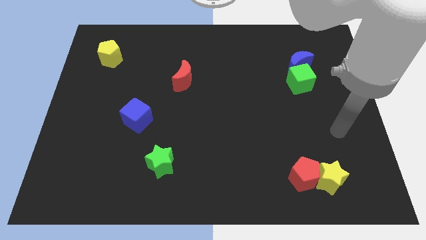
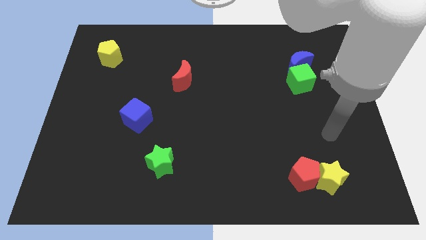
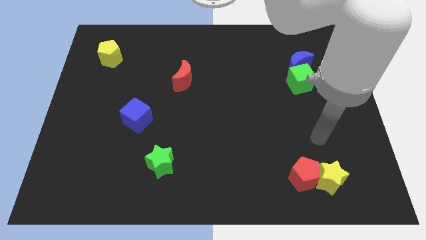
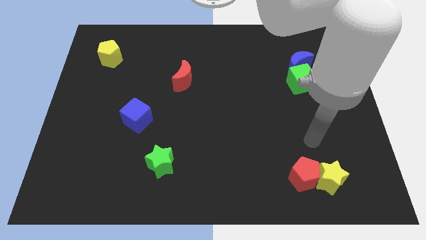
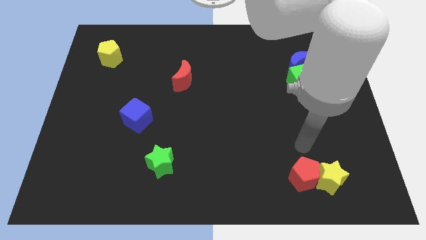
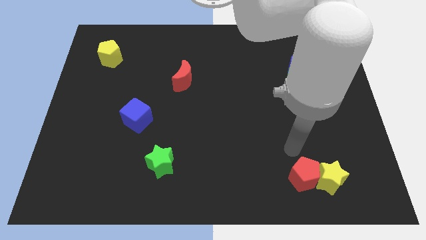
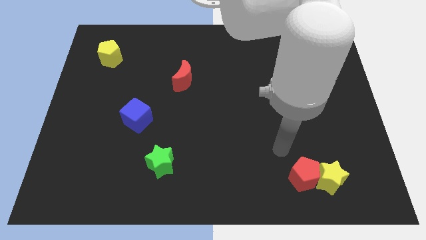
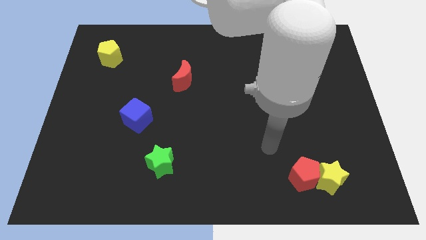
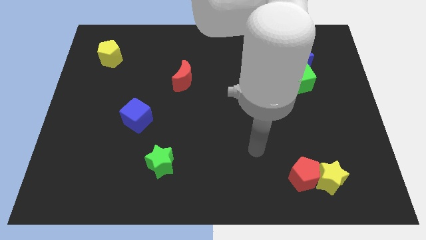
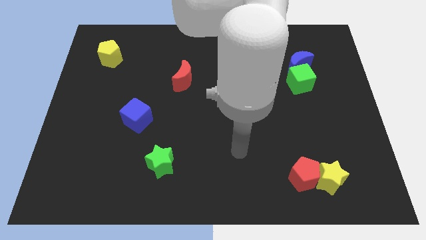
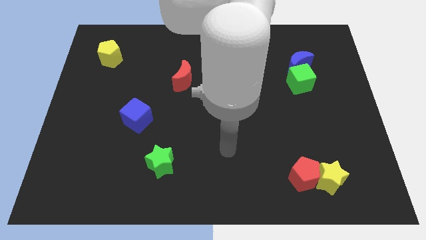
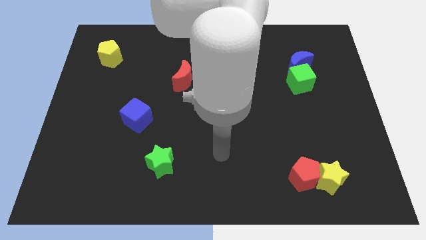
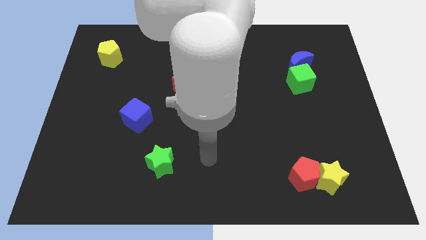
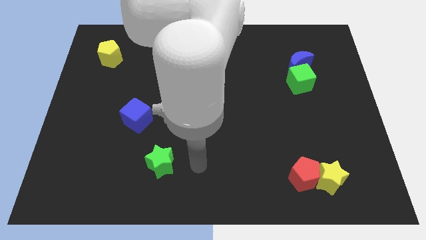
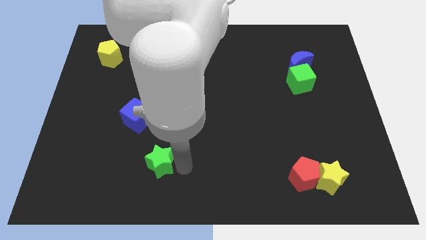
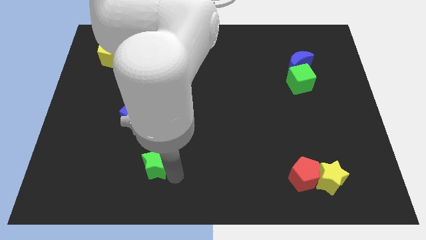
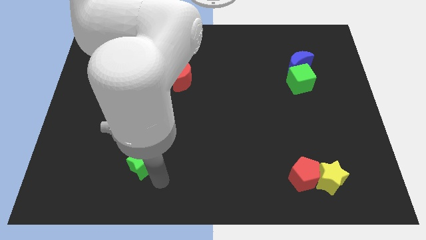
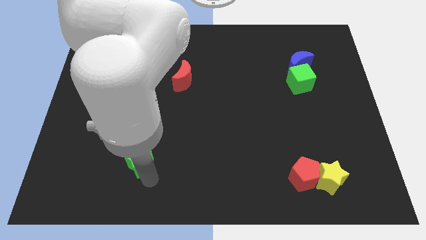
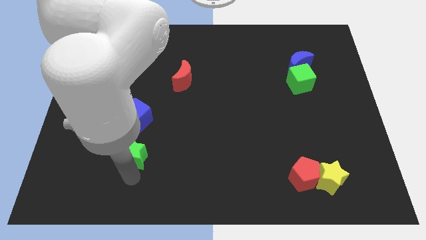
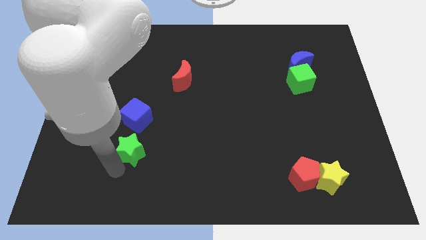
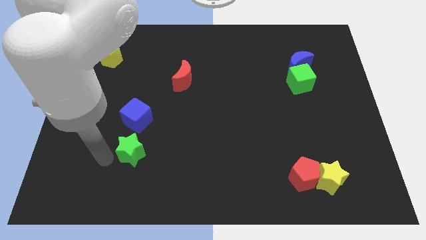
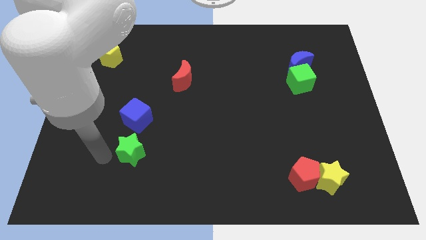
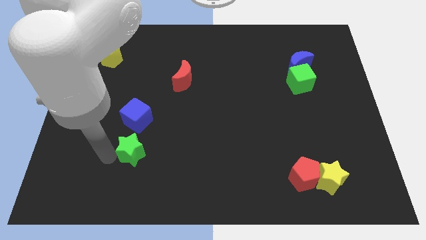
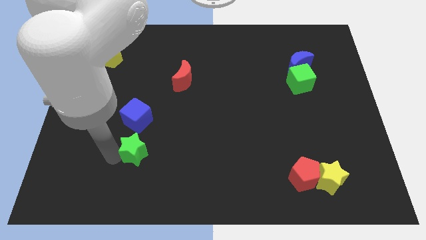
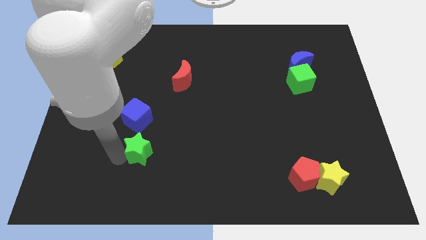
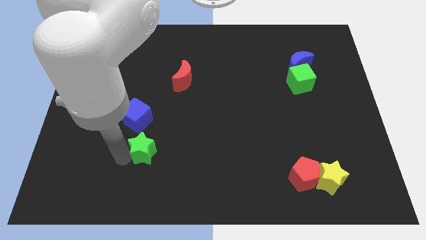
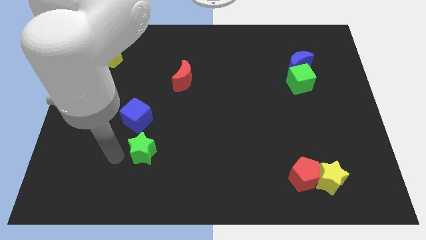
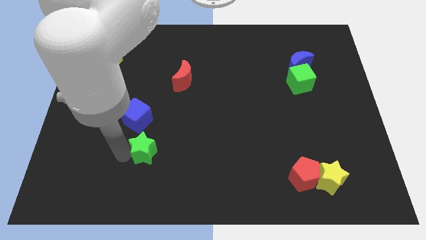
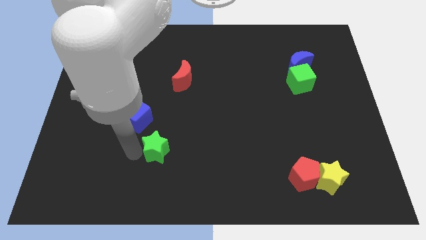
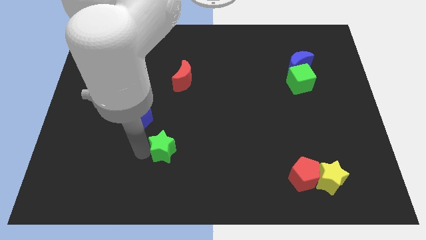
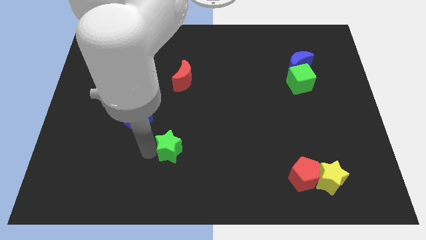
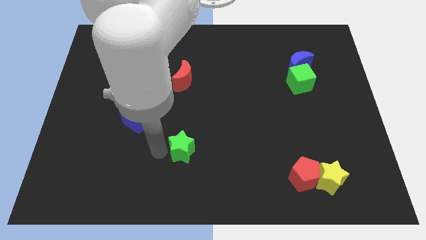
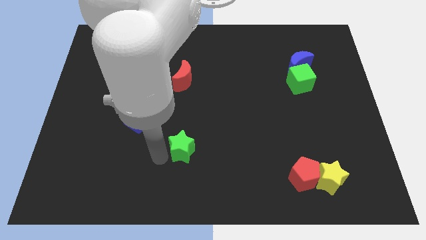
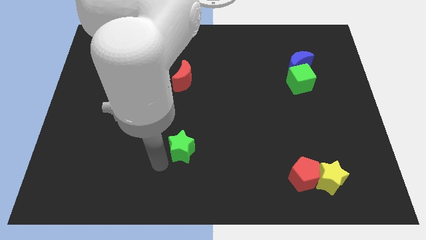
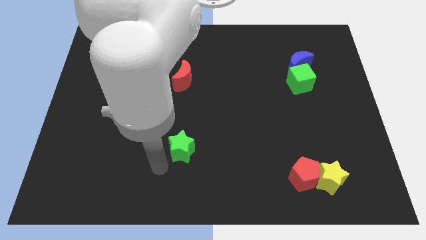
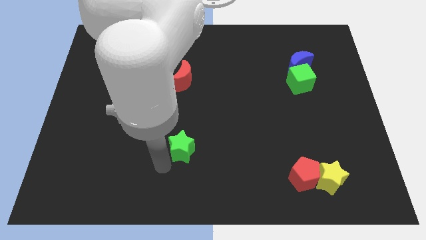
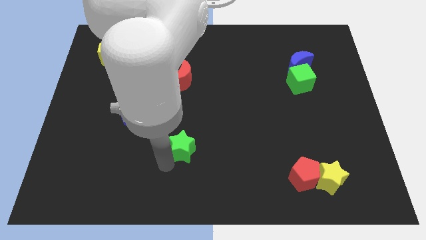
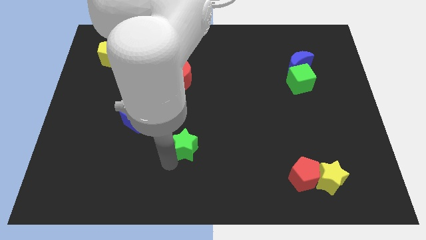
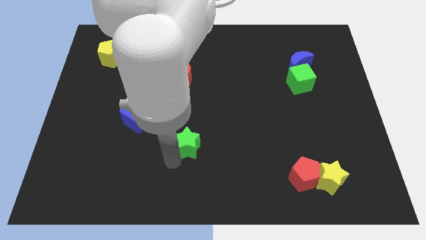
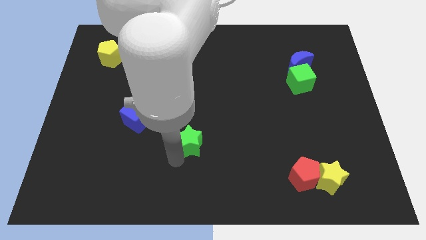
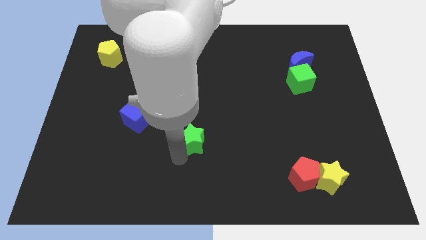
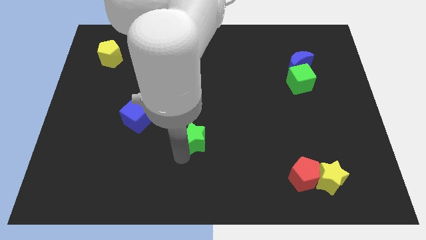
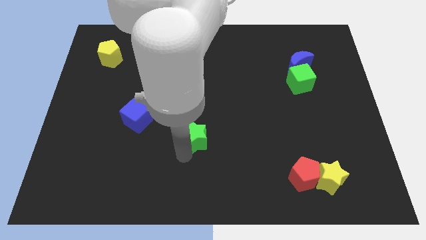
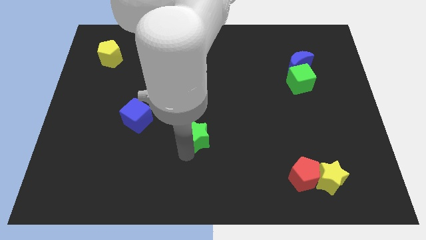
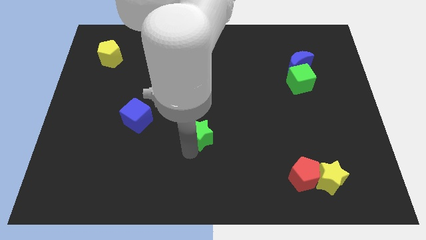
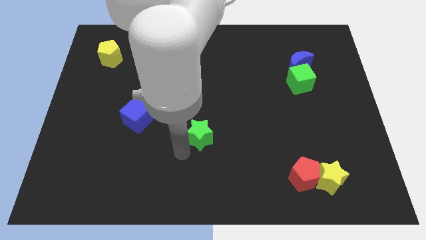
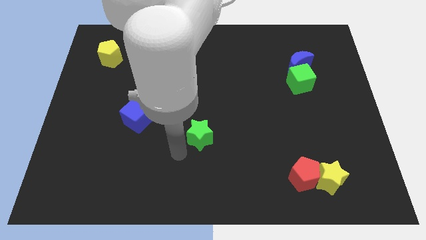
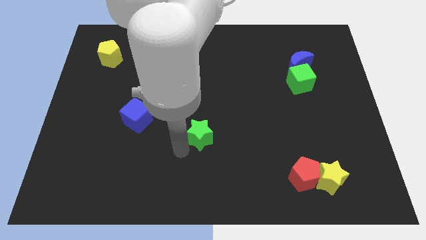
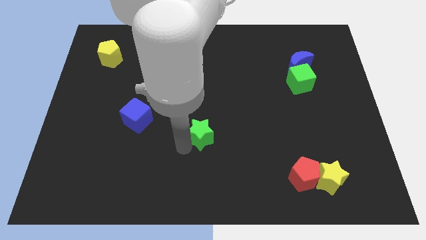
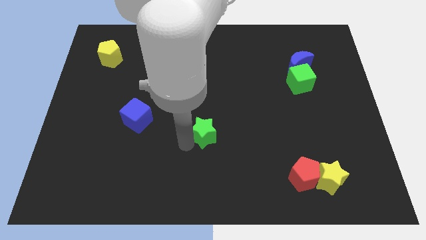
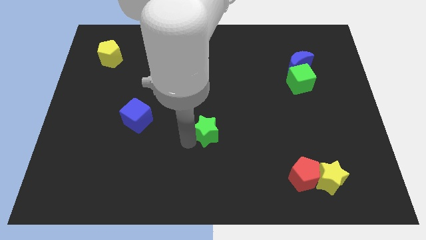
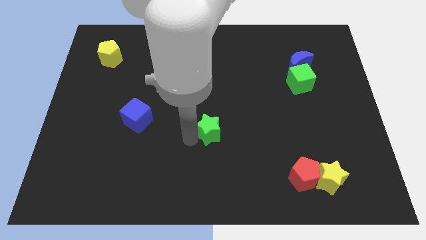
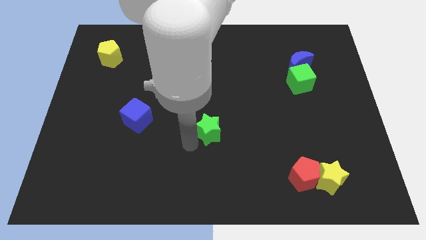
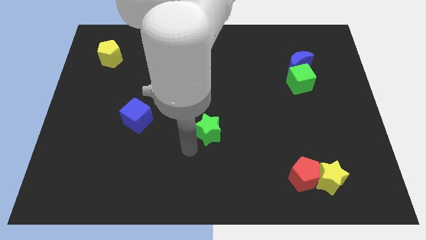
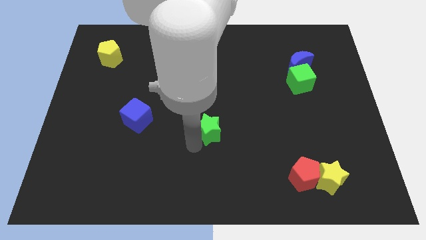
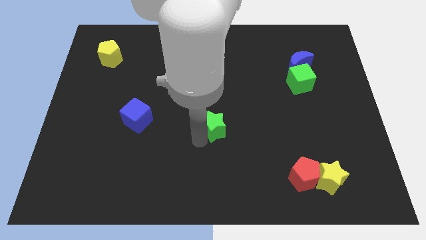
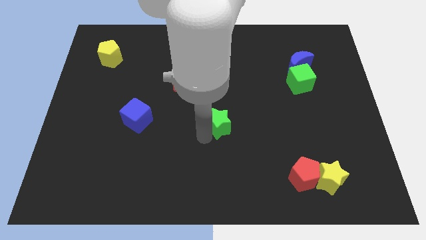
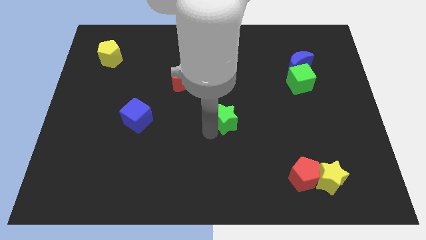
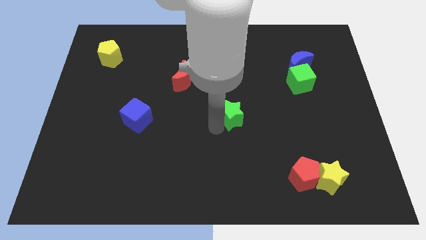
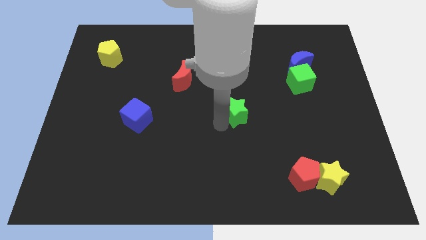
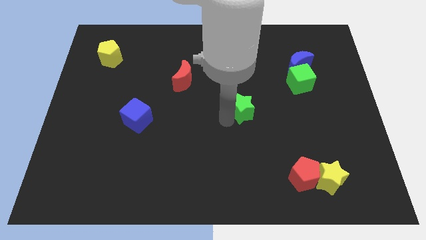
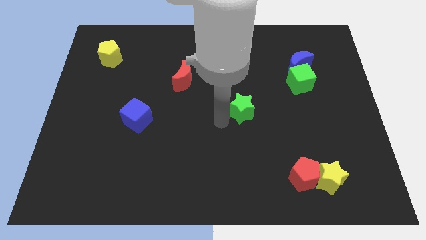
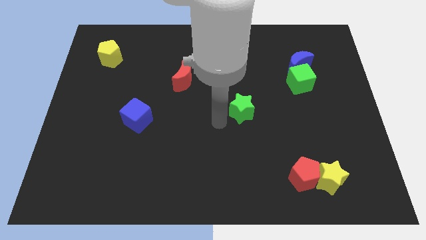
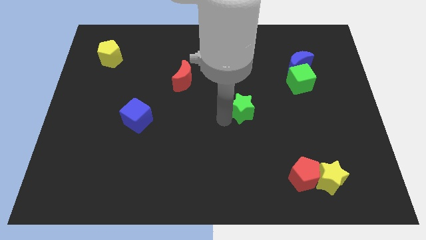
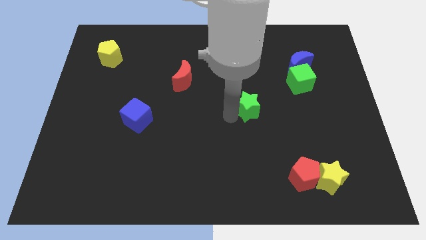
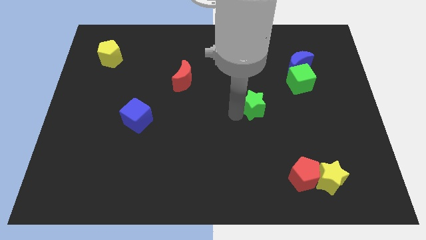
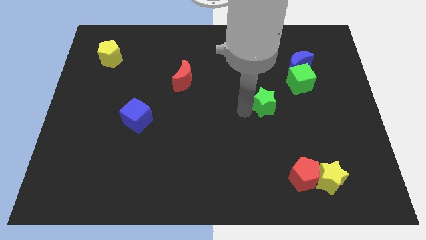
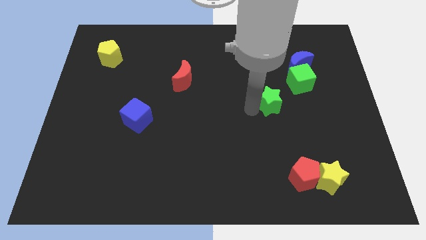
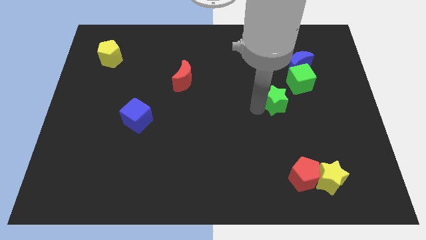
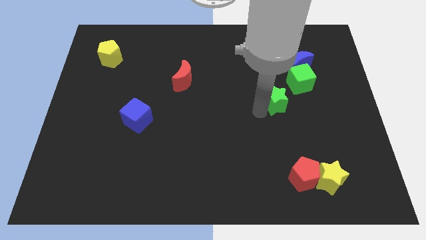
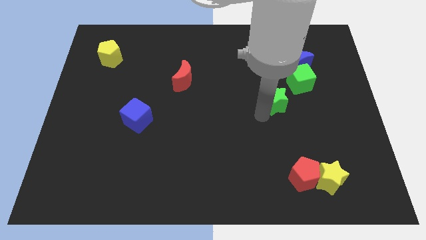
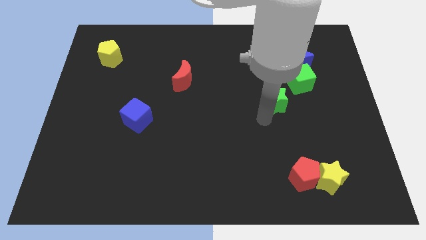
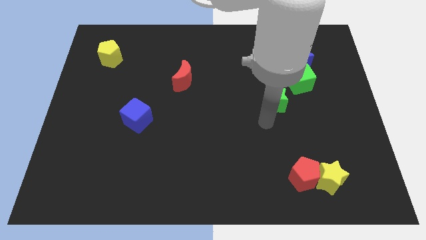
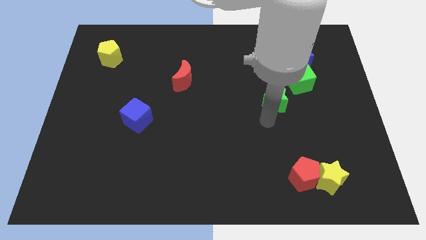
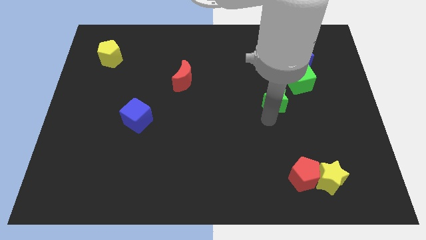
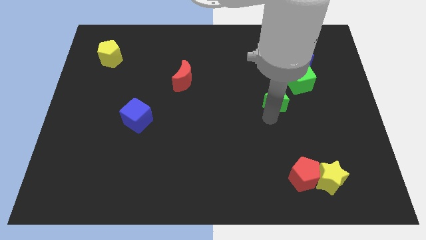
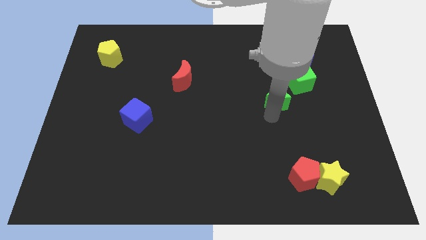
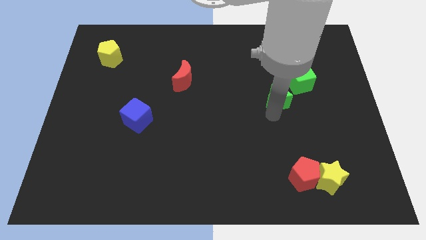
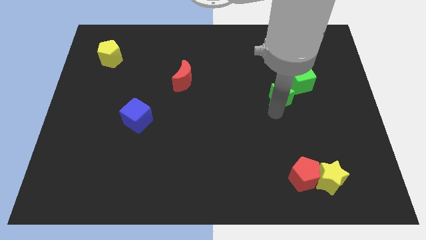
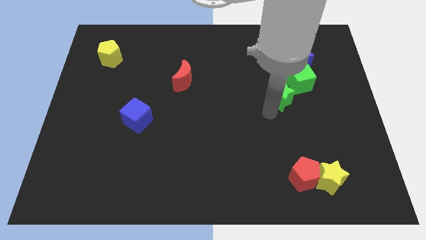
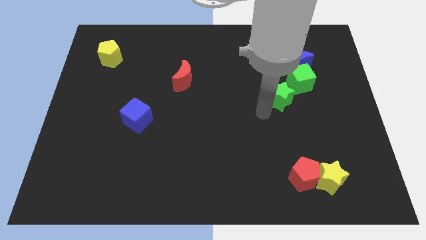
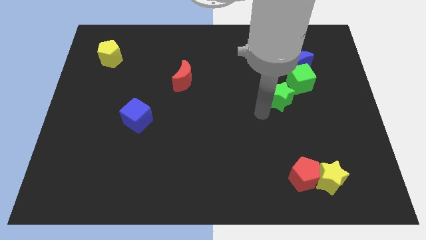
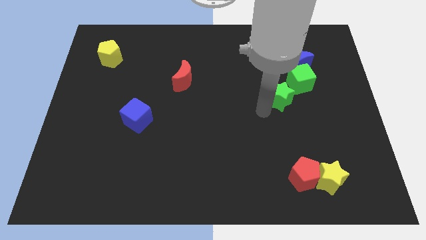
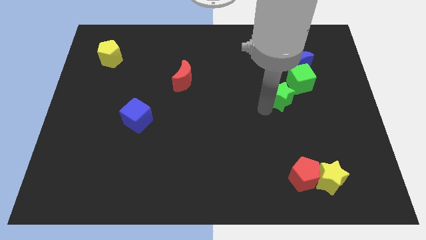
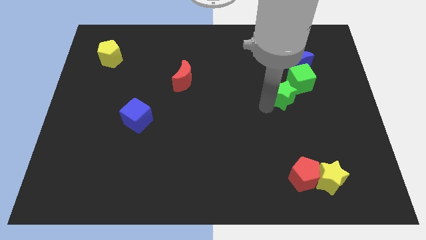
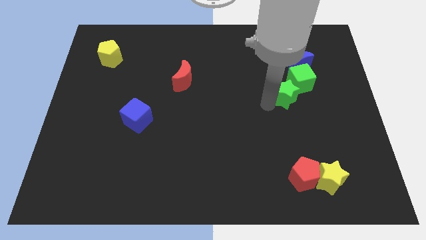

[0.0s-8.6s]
move the green star towards the green cube
